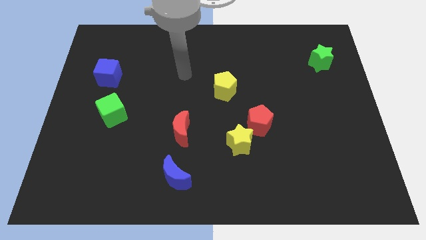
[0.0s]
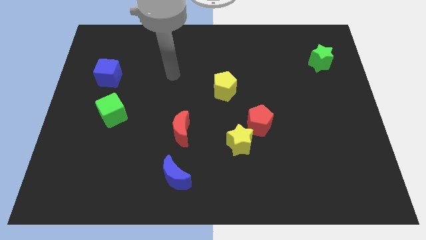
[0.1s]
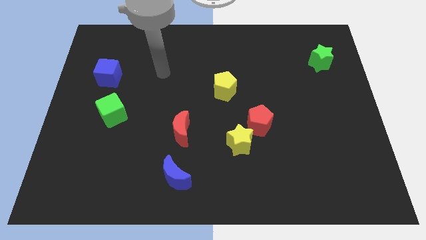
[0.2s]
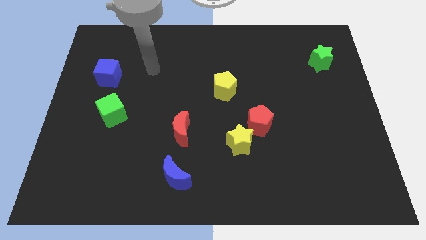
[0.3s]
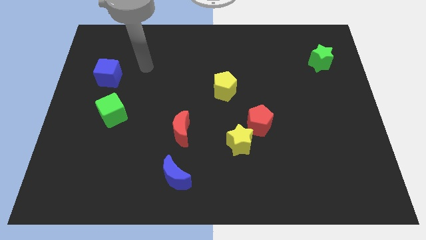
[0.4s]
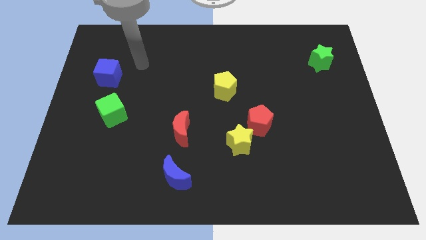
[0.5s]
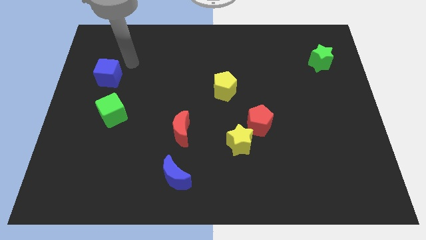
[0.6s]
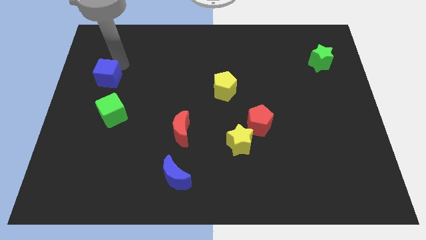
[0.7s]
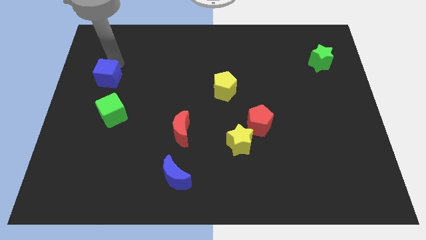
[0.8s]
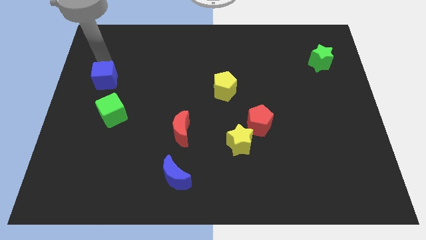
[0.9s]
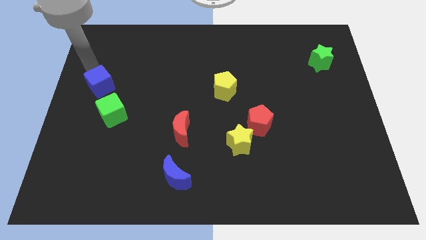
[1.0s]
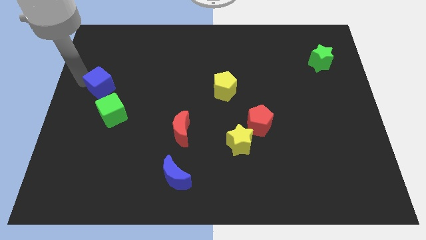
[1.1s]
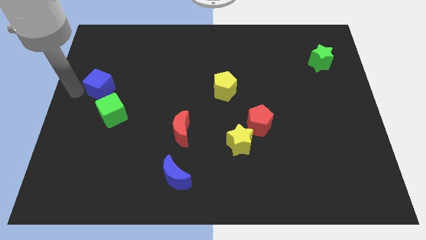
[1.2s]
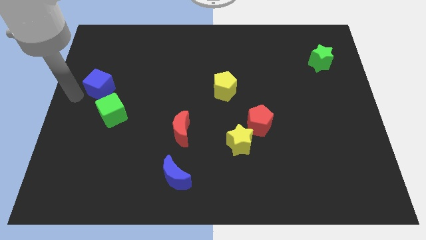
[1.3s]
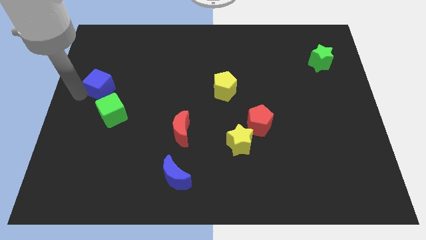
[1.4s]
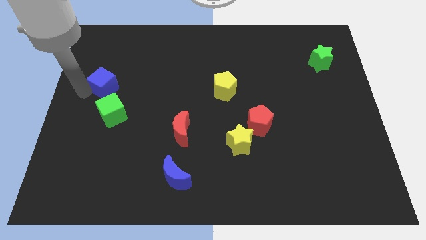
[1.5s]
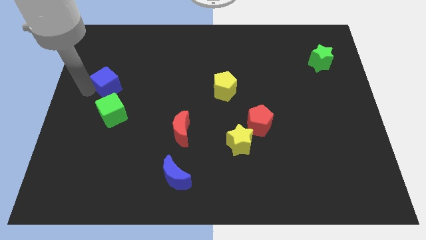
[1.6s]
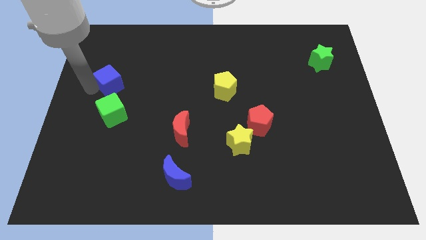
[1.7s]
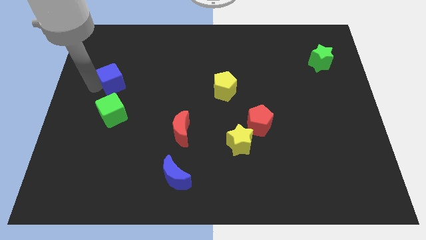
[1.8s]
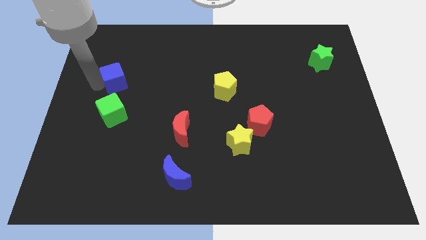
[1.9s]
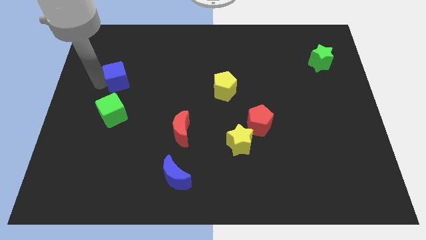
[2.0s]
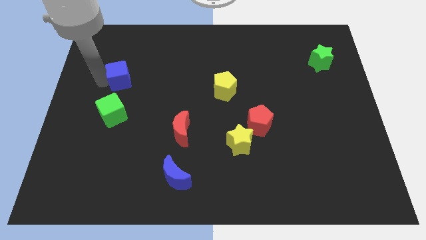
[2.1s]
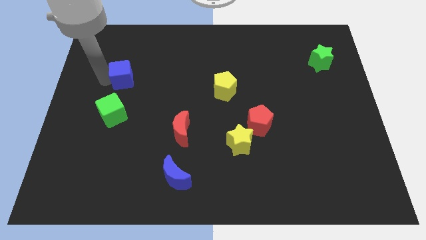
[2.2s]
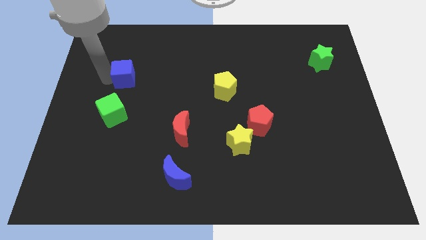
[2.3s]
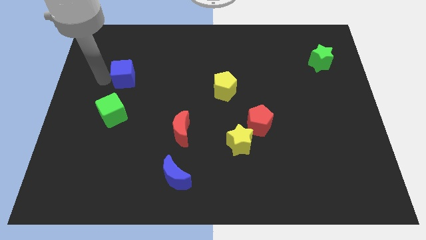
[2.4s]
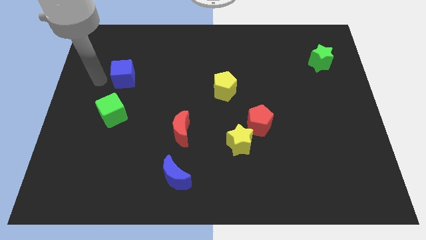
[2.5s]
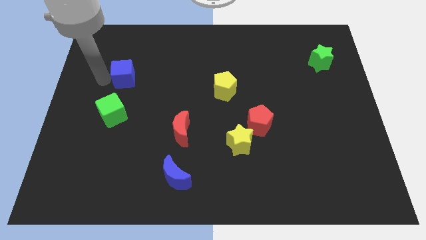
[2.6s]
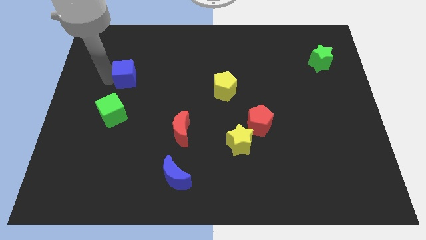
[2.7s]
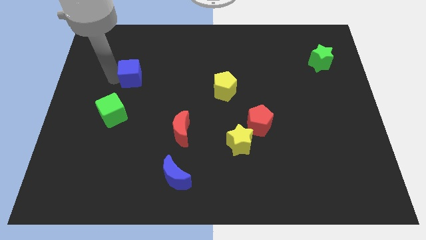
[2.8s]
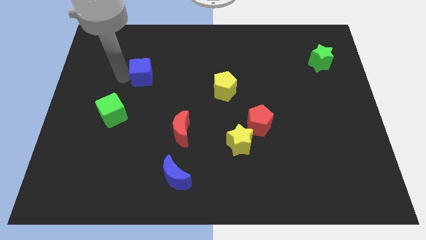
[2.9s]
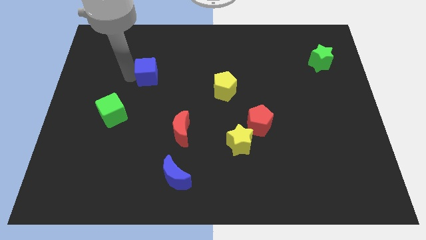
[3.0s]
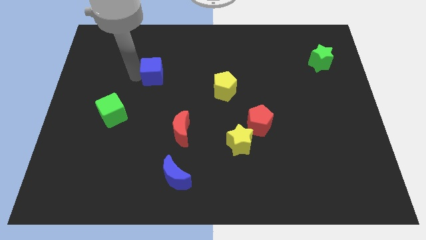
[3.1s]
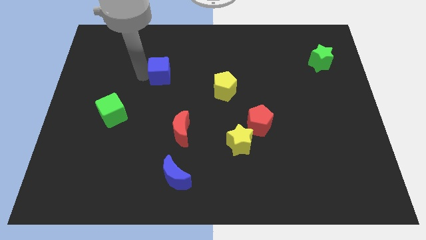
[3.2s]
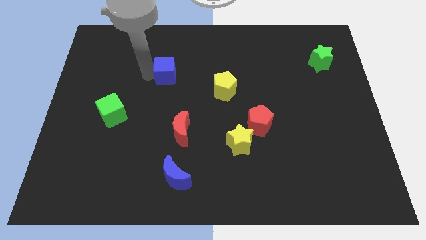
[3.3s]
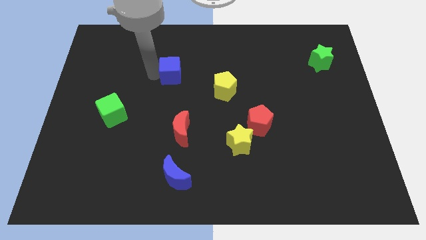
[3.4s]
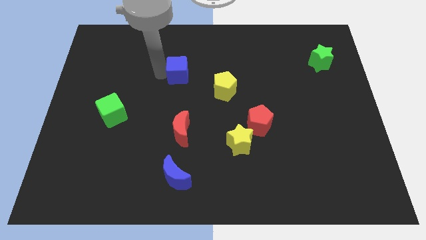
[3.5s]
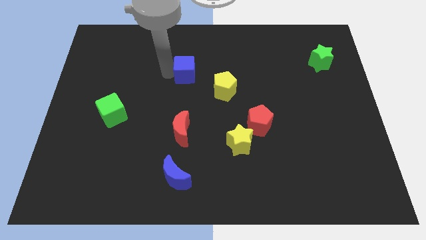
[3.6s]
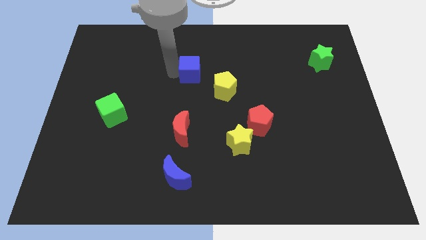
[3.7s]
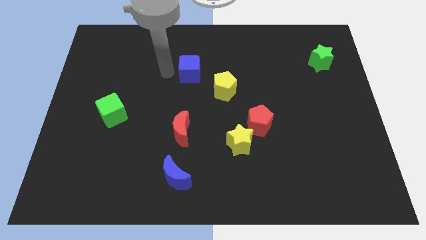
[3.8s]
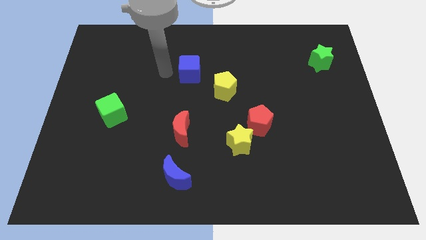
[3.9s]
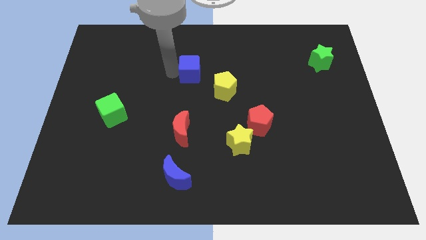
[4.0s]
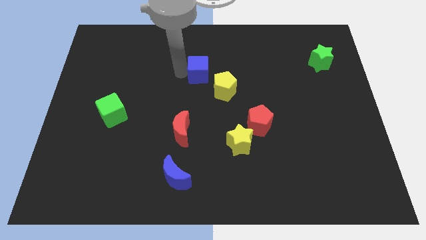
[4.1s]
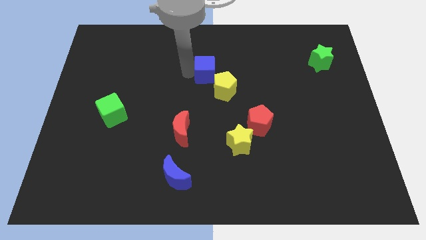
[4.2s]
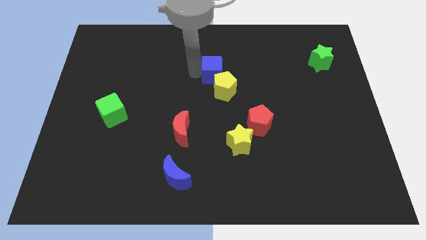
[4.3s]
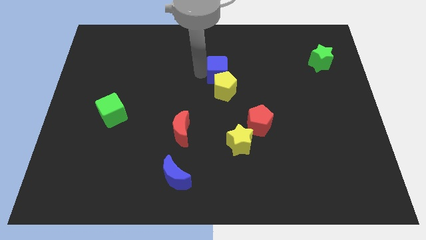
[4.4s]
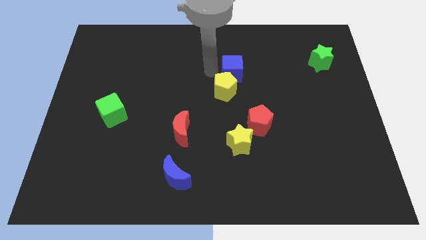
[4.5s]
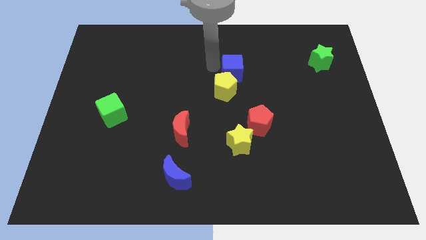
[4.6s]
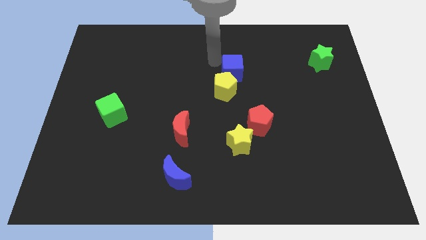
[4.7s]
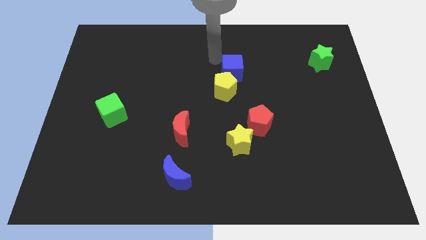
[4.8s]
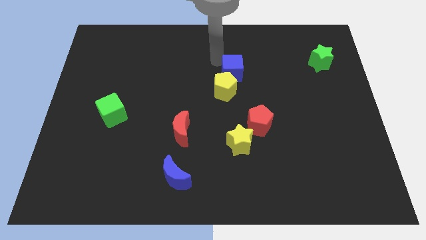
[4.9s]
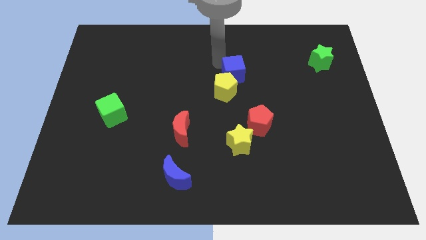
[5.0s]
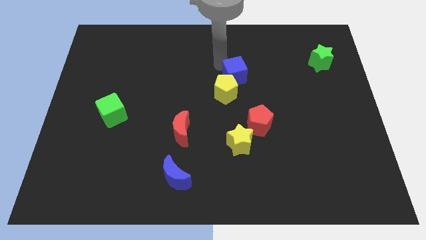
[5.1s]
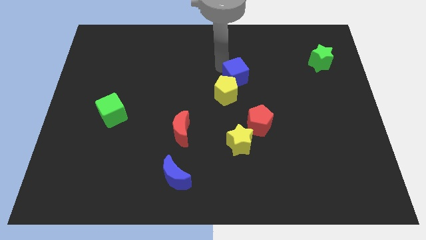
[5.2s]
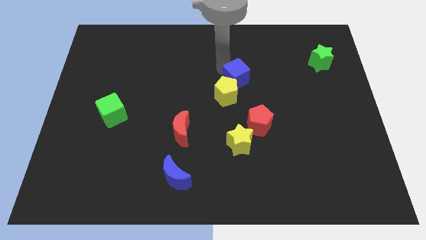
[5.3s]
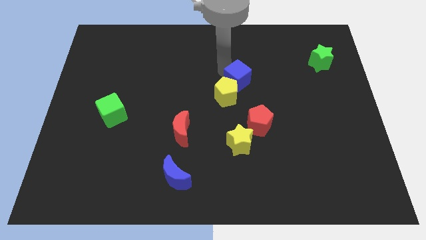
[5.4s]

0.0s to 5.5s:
push the blue cube above the red pentagon

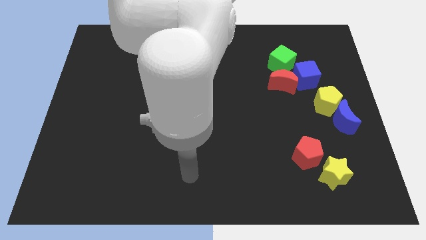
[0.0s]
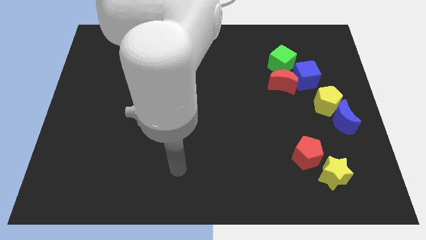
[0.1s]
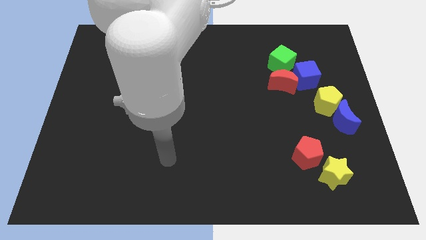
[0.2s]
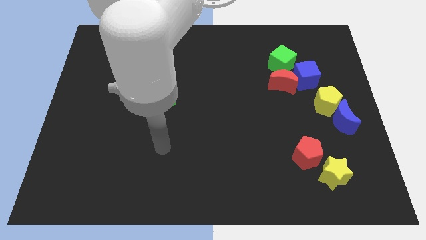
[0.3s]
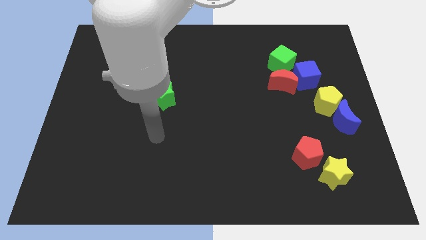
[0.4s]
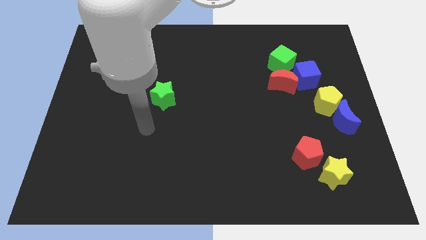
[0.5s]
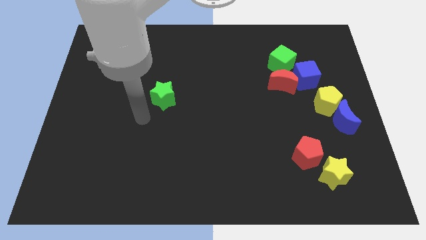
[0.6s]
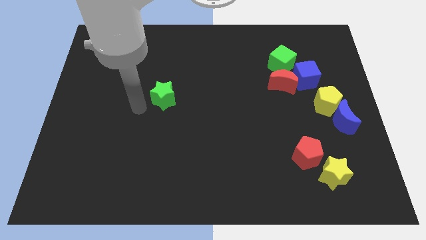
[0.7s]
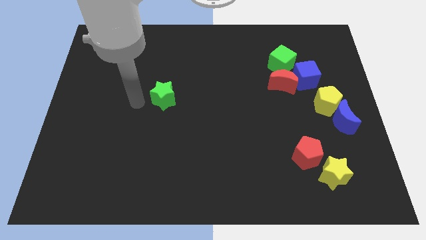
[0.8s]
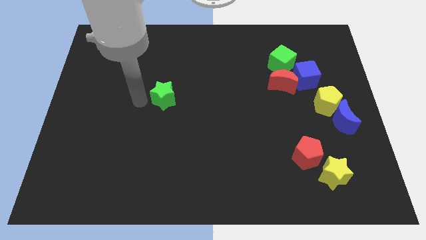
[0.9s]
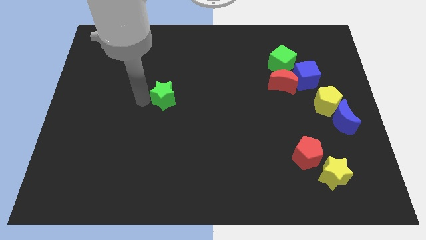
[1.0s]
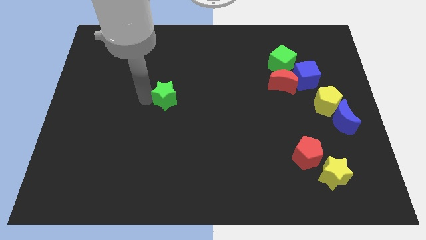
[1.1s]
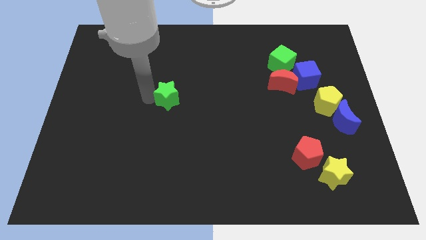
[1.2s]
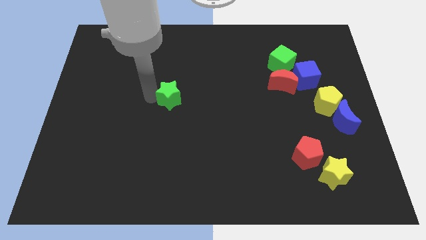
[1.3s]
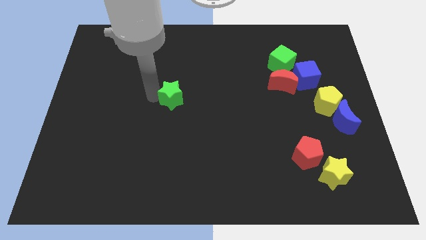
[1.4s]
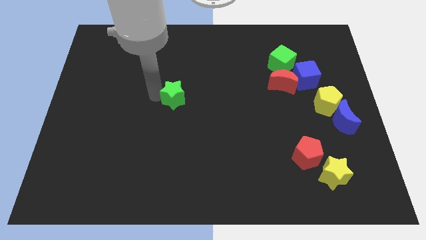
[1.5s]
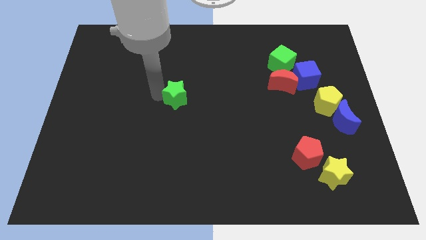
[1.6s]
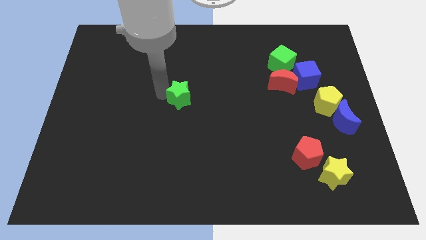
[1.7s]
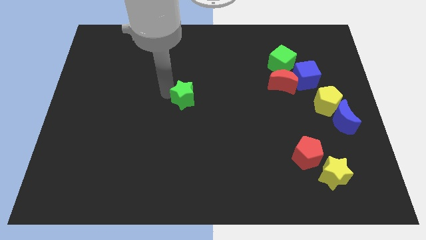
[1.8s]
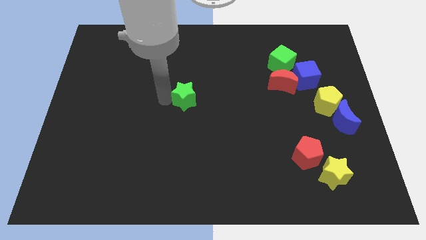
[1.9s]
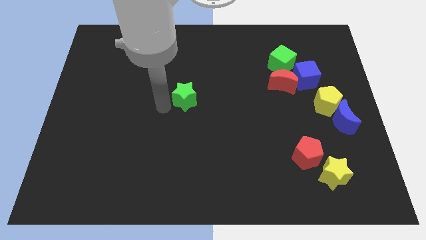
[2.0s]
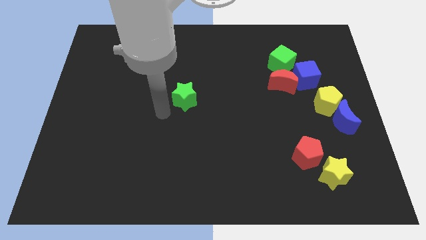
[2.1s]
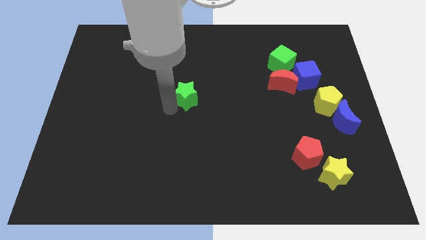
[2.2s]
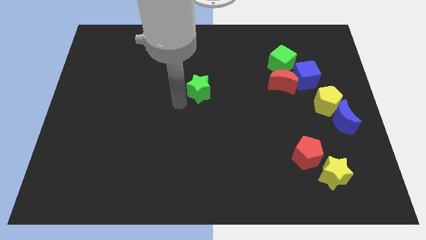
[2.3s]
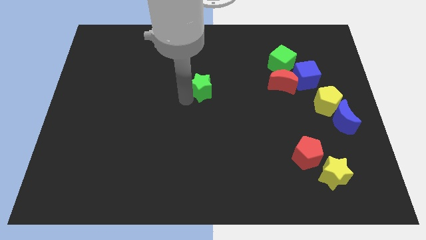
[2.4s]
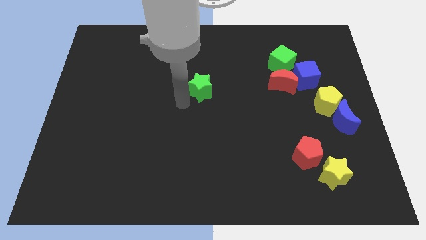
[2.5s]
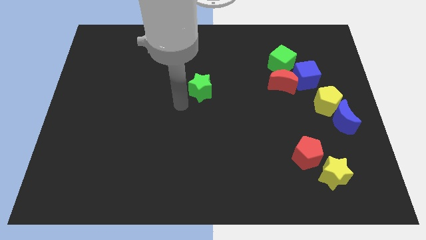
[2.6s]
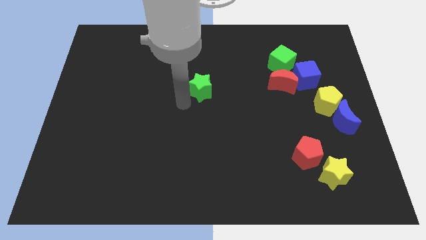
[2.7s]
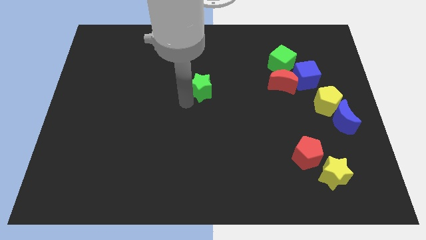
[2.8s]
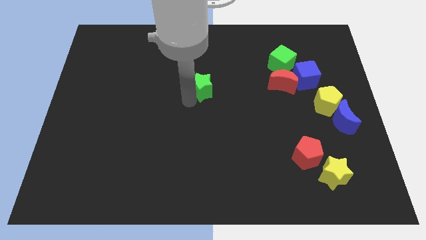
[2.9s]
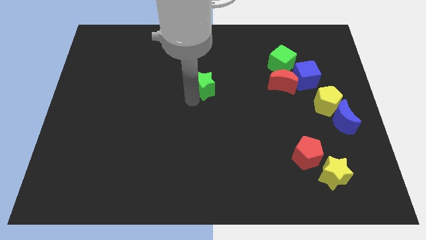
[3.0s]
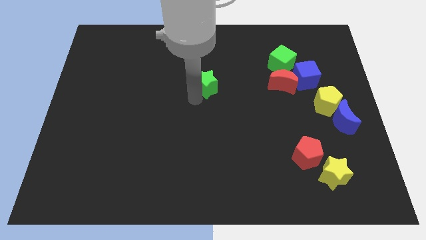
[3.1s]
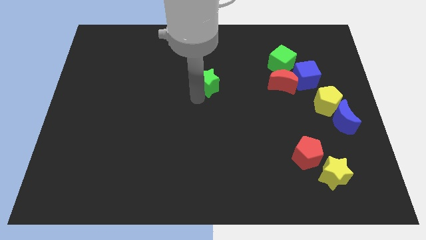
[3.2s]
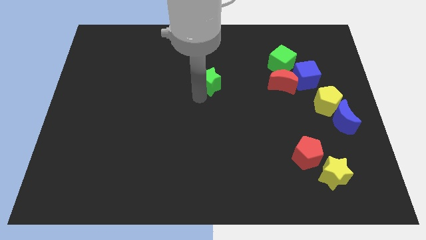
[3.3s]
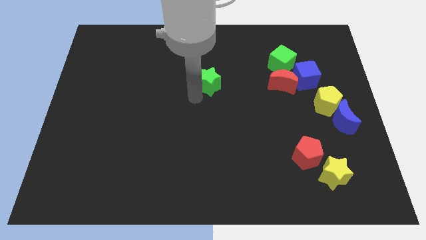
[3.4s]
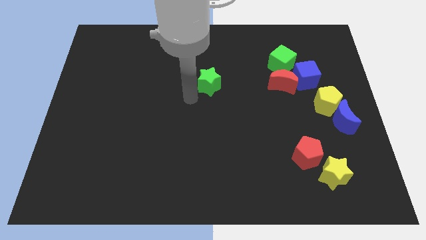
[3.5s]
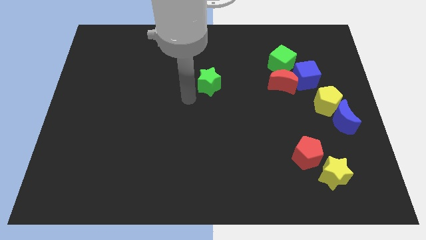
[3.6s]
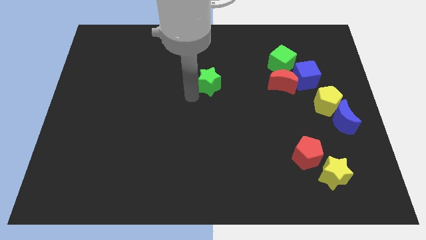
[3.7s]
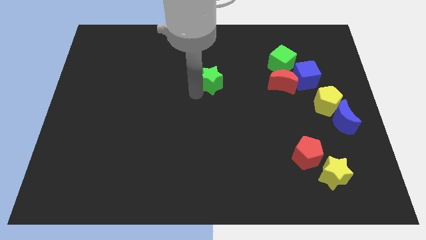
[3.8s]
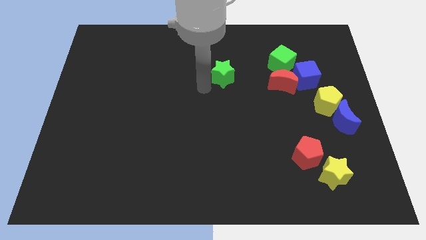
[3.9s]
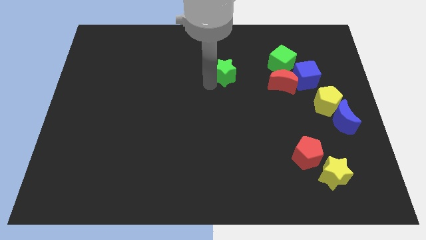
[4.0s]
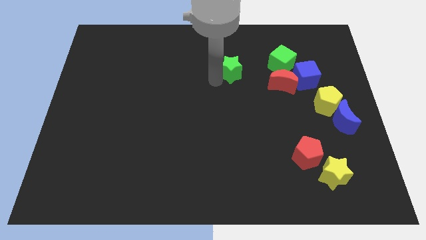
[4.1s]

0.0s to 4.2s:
move the green star left of the green cube
